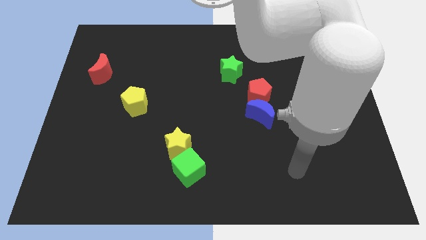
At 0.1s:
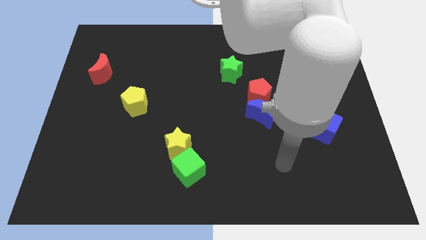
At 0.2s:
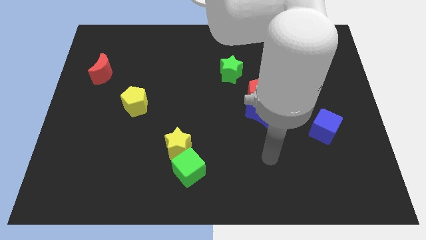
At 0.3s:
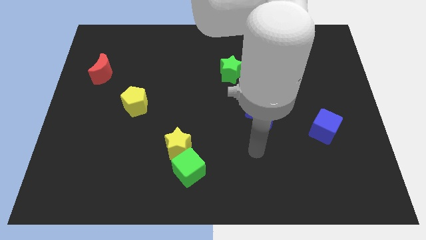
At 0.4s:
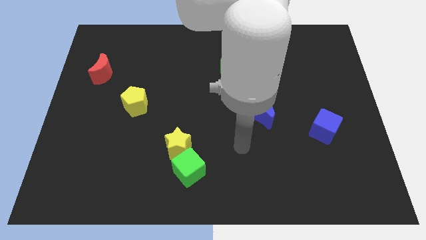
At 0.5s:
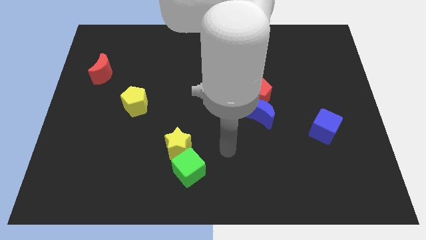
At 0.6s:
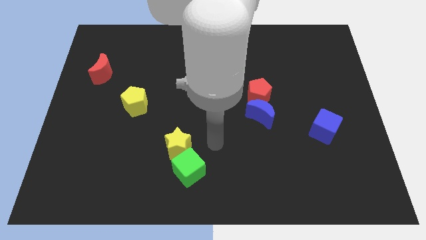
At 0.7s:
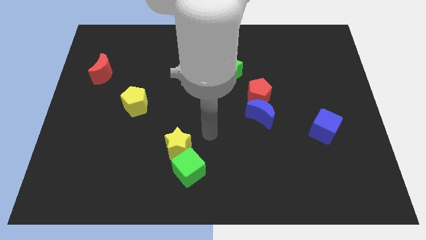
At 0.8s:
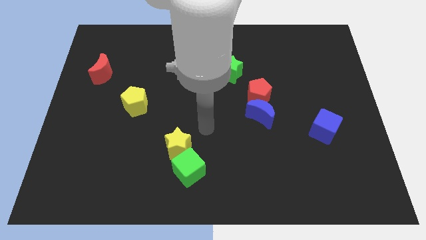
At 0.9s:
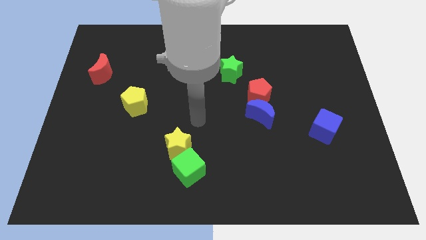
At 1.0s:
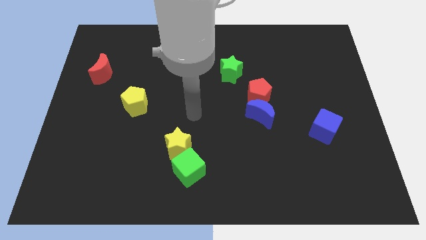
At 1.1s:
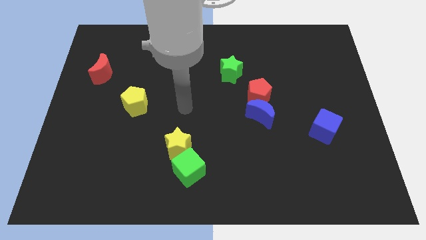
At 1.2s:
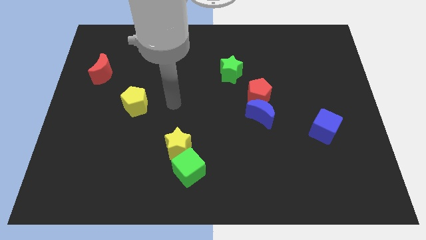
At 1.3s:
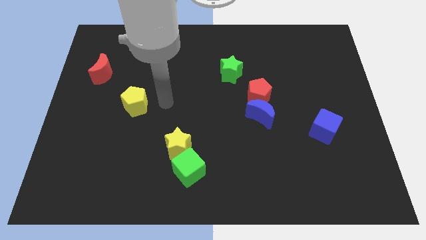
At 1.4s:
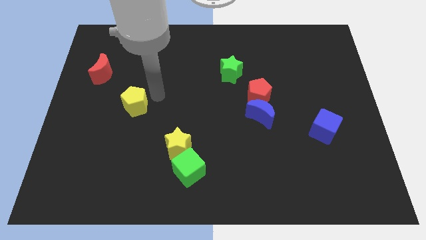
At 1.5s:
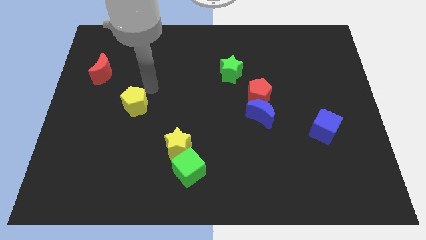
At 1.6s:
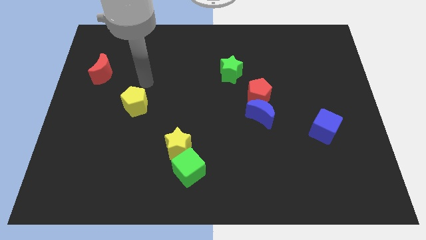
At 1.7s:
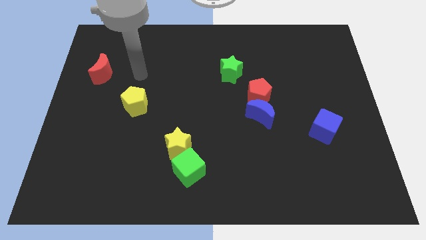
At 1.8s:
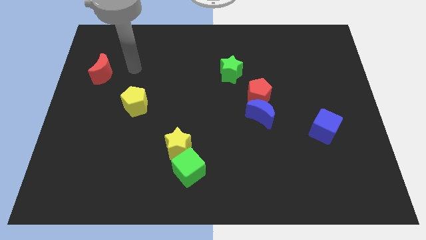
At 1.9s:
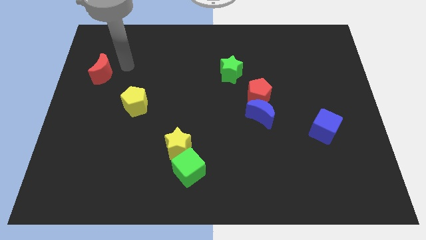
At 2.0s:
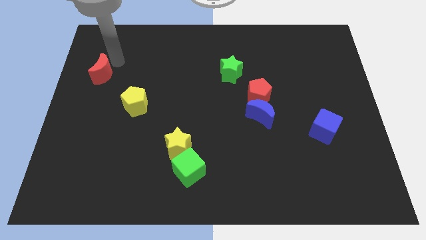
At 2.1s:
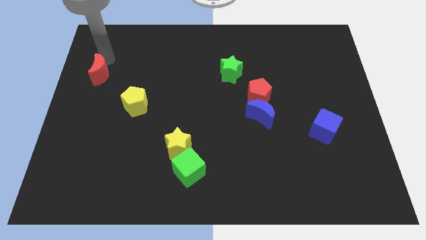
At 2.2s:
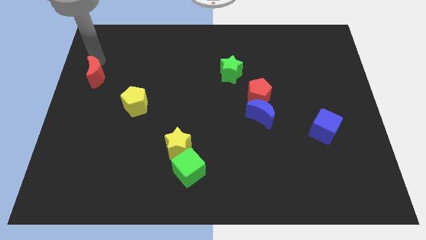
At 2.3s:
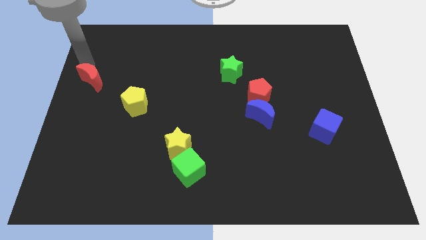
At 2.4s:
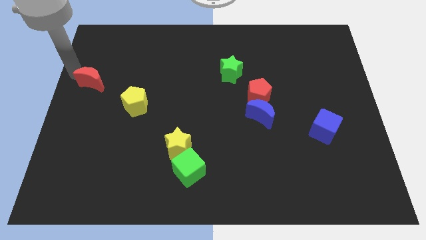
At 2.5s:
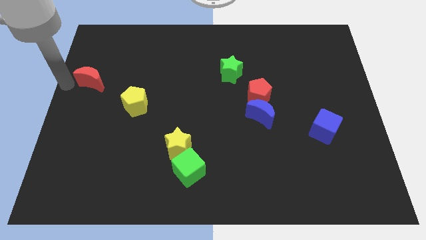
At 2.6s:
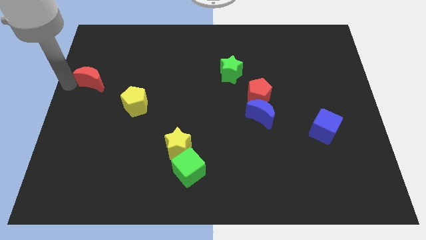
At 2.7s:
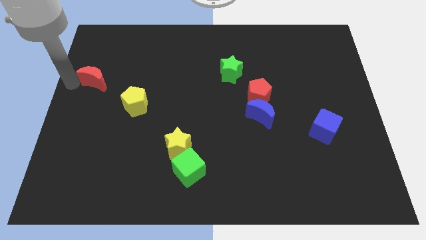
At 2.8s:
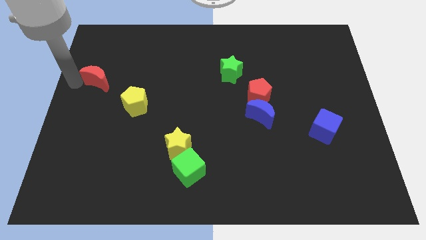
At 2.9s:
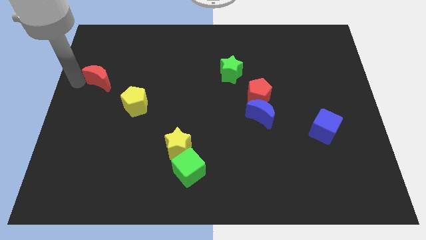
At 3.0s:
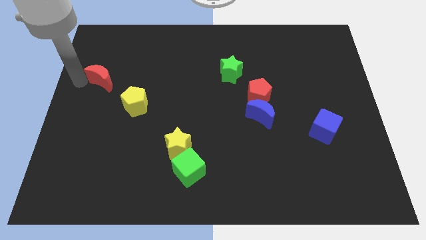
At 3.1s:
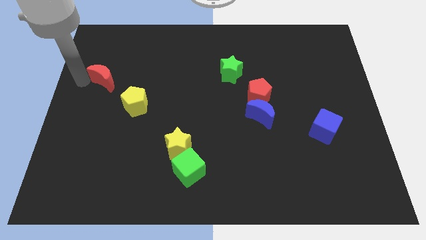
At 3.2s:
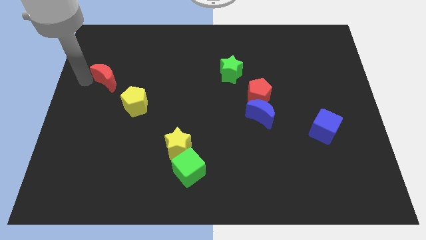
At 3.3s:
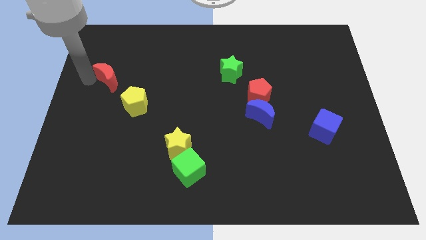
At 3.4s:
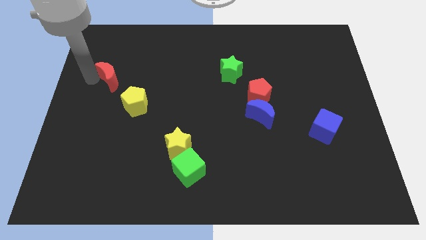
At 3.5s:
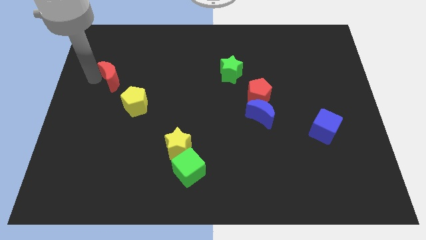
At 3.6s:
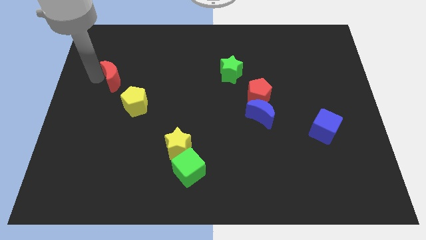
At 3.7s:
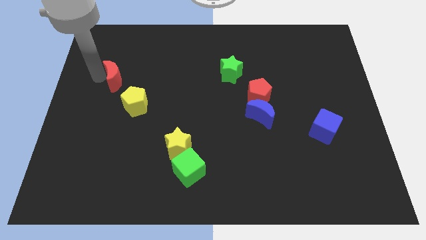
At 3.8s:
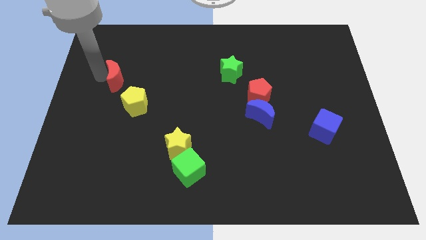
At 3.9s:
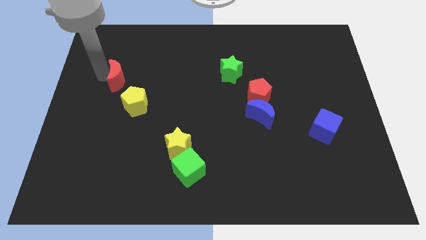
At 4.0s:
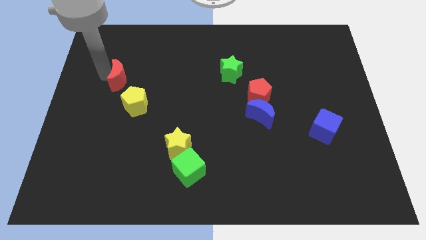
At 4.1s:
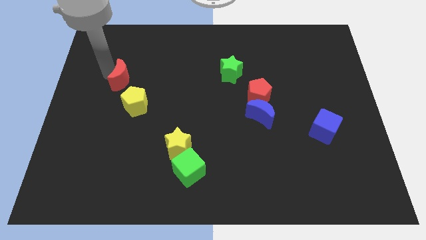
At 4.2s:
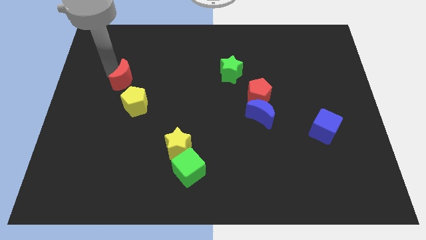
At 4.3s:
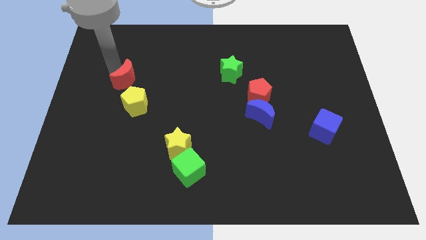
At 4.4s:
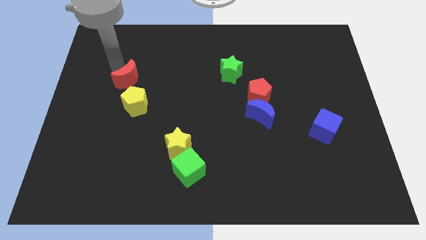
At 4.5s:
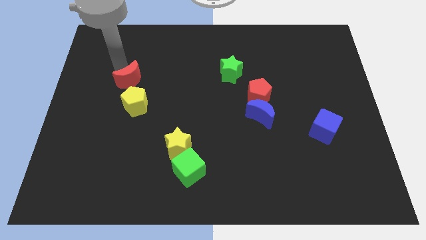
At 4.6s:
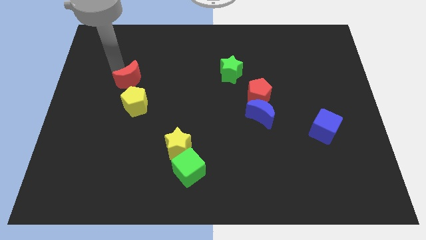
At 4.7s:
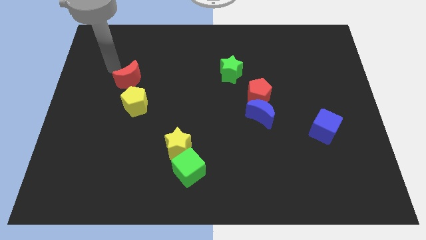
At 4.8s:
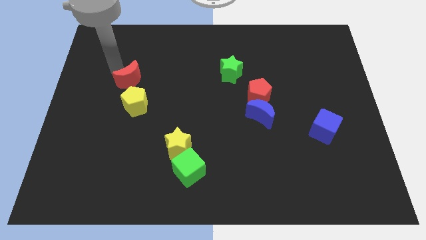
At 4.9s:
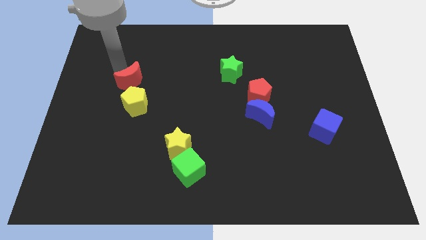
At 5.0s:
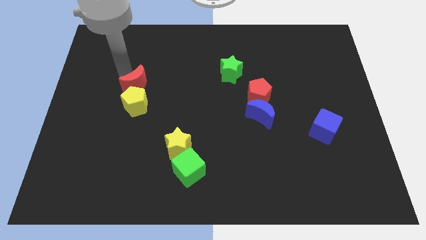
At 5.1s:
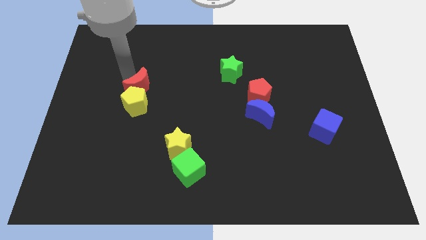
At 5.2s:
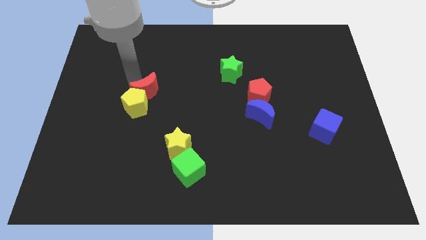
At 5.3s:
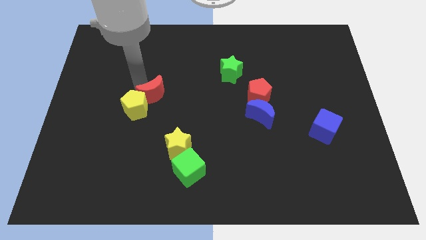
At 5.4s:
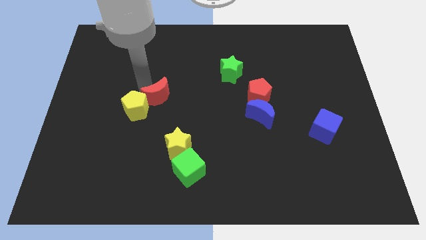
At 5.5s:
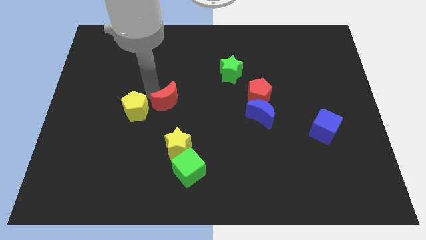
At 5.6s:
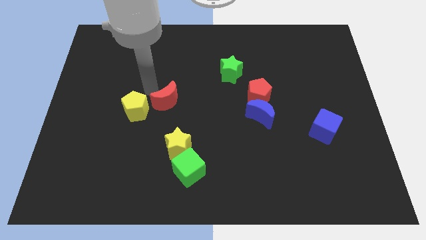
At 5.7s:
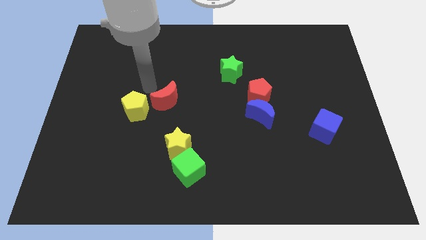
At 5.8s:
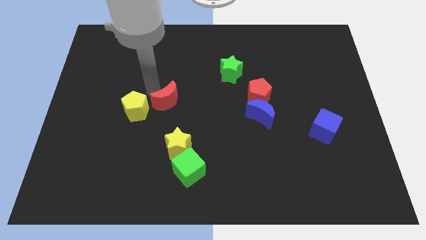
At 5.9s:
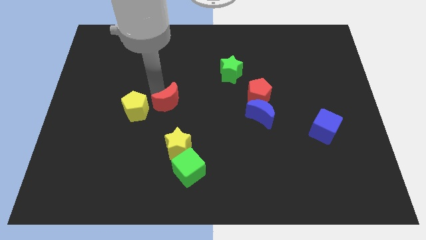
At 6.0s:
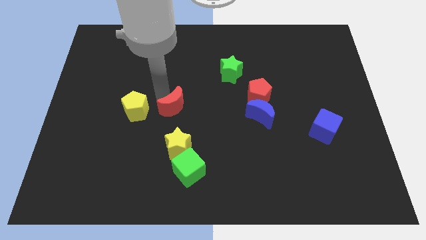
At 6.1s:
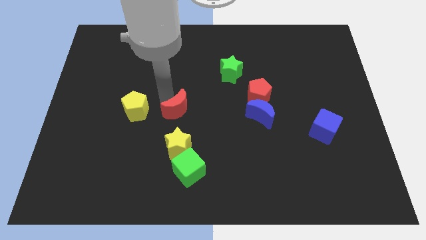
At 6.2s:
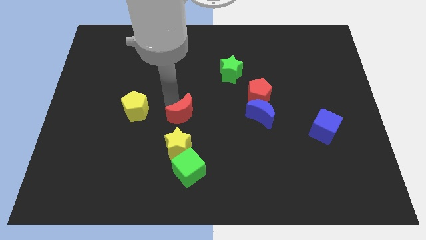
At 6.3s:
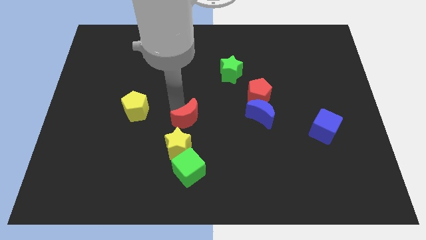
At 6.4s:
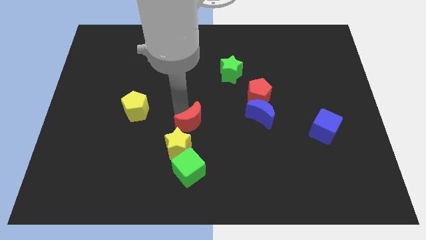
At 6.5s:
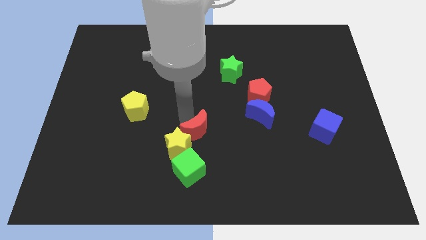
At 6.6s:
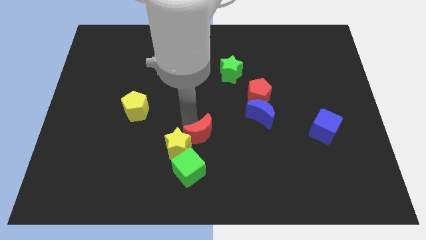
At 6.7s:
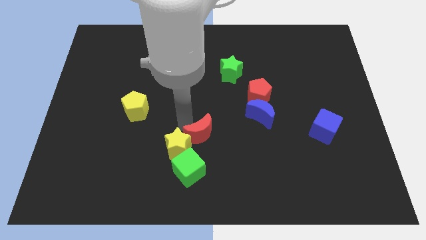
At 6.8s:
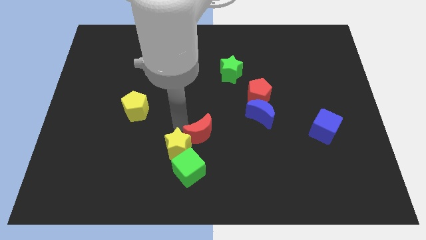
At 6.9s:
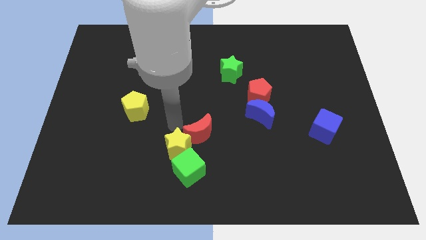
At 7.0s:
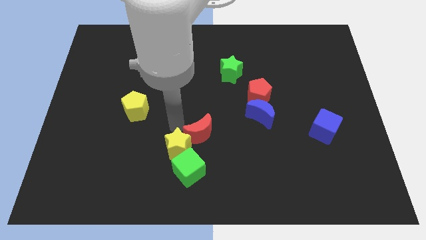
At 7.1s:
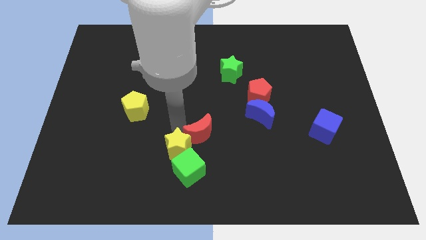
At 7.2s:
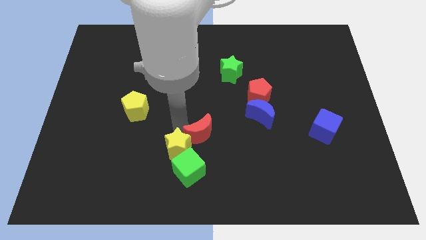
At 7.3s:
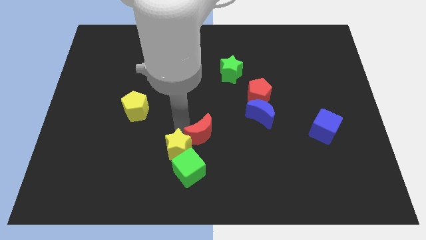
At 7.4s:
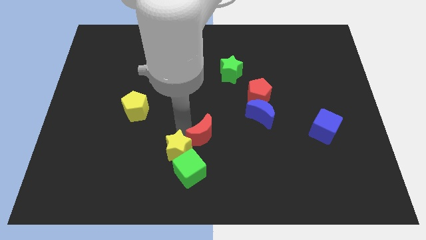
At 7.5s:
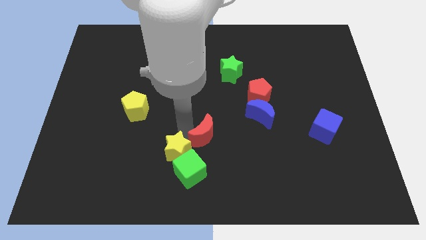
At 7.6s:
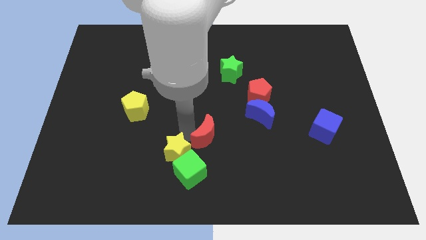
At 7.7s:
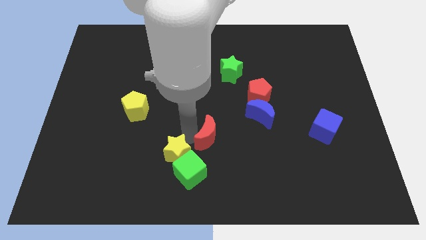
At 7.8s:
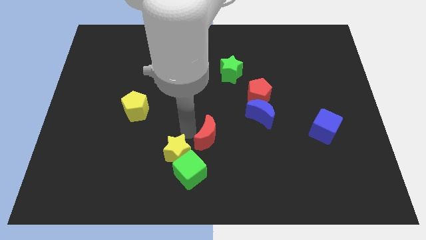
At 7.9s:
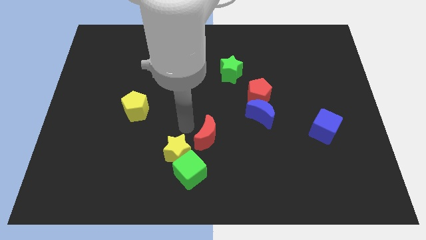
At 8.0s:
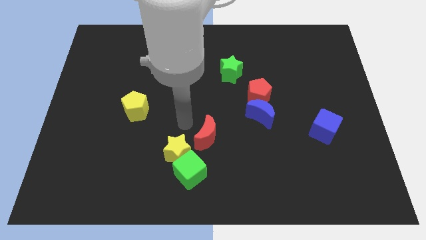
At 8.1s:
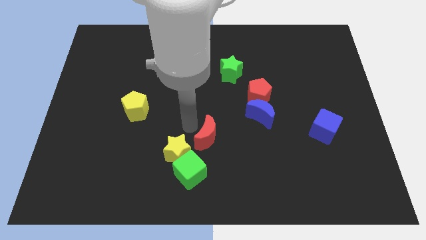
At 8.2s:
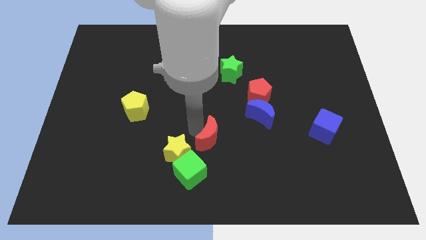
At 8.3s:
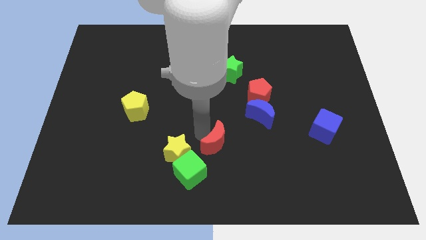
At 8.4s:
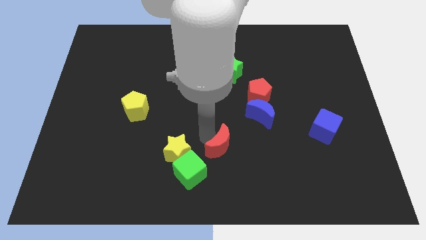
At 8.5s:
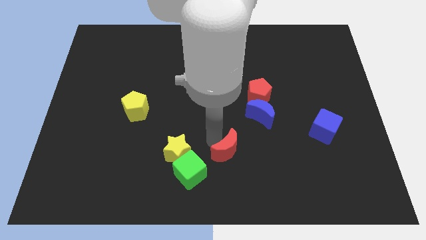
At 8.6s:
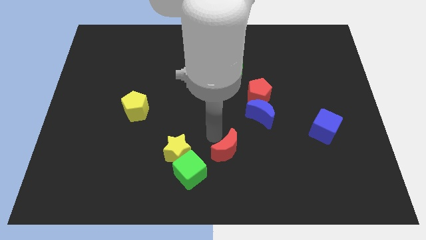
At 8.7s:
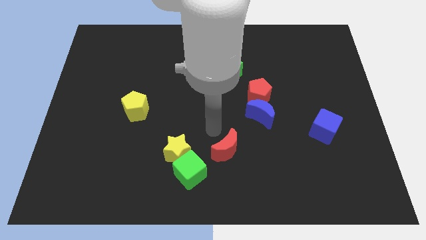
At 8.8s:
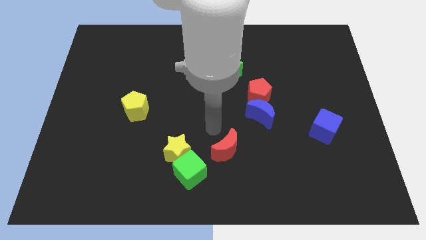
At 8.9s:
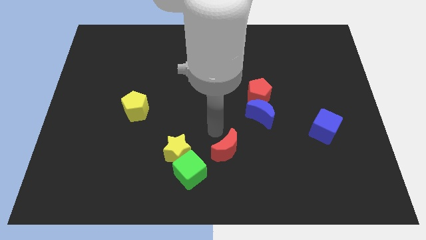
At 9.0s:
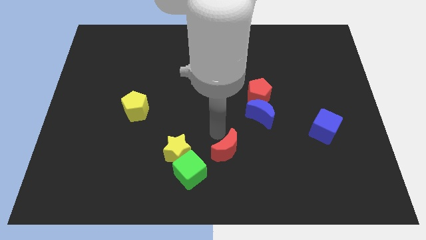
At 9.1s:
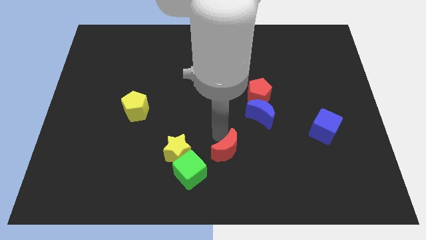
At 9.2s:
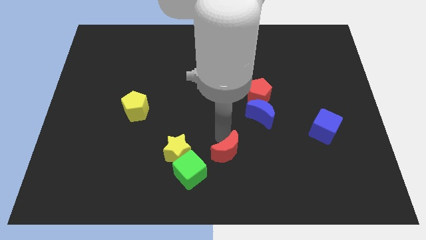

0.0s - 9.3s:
put the red moon right of the green cube
